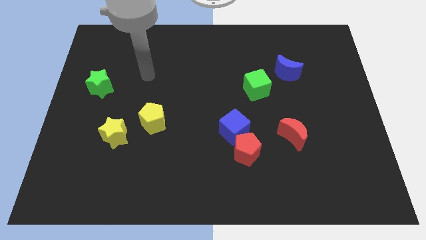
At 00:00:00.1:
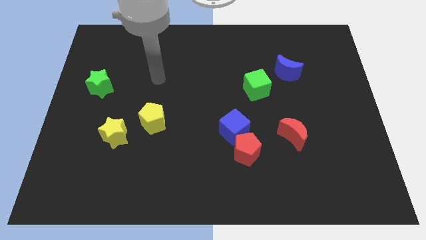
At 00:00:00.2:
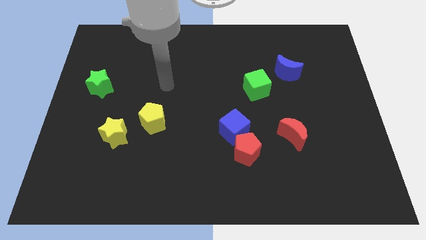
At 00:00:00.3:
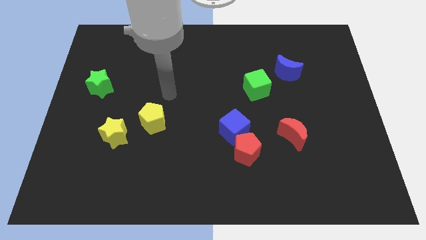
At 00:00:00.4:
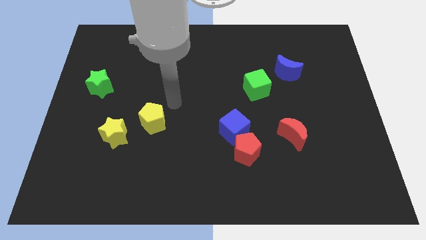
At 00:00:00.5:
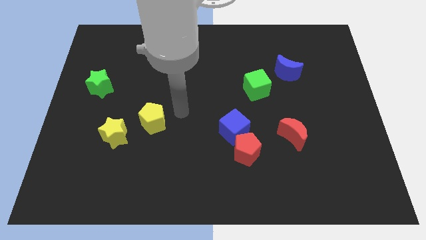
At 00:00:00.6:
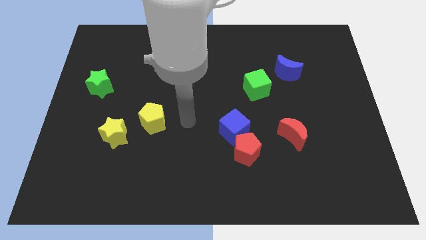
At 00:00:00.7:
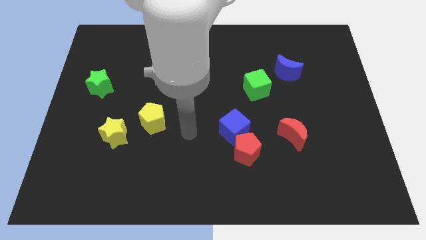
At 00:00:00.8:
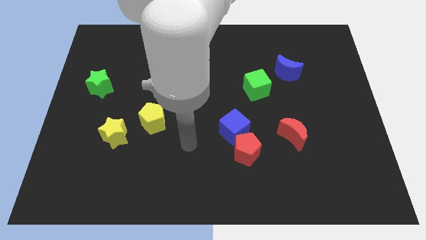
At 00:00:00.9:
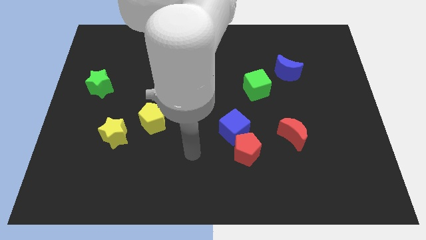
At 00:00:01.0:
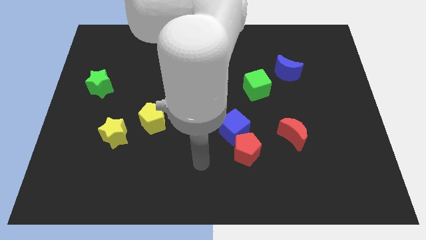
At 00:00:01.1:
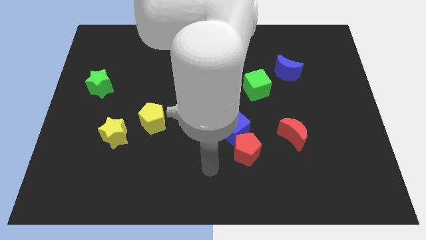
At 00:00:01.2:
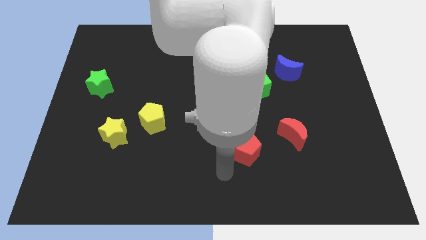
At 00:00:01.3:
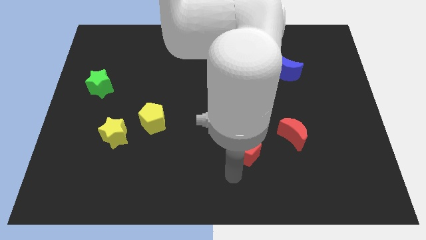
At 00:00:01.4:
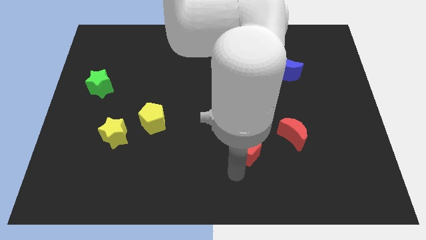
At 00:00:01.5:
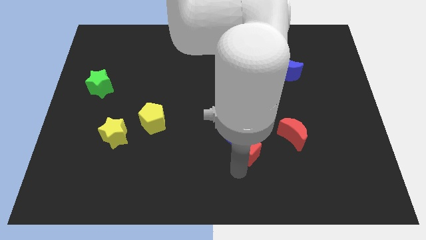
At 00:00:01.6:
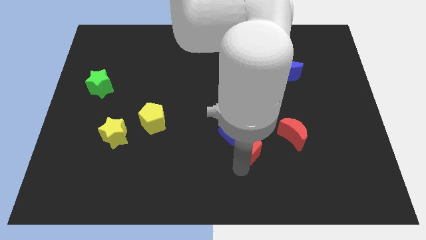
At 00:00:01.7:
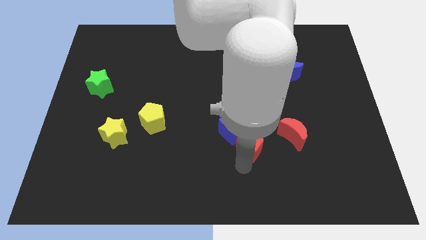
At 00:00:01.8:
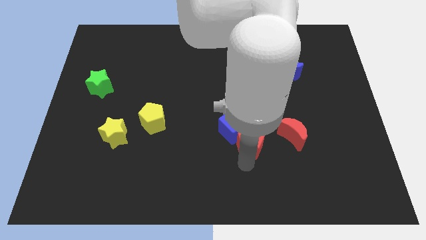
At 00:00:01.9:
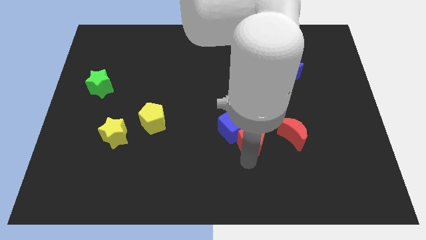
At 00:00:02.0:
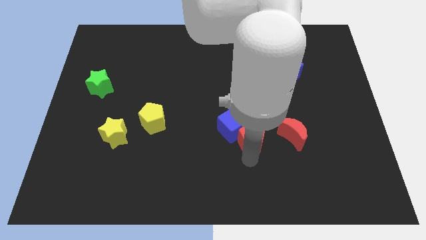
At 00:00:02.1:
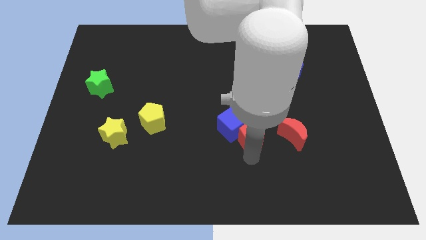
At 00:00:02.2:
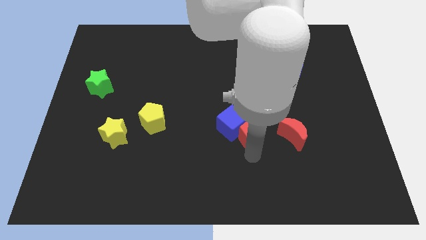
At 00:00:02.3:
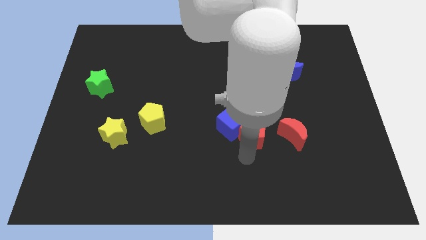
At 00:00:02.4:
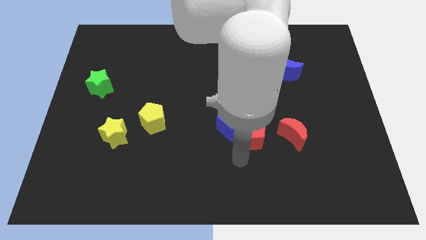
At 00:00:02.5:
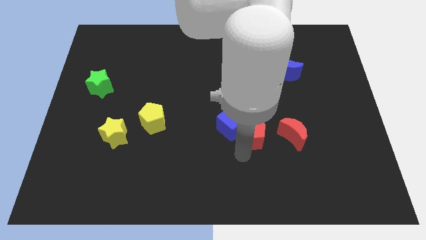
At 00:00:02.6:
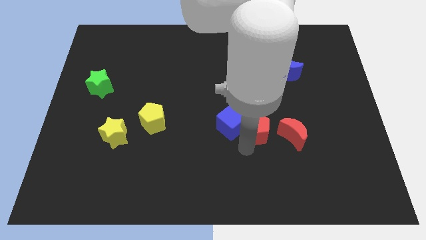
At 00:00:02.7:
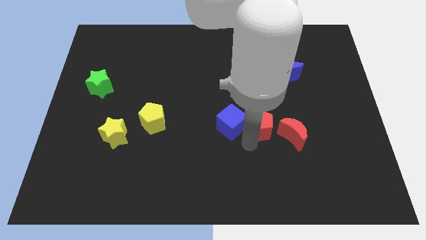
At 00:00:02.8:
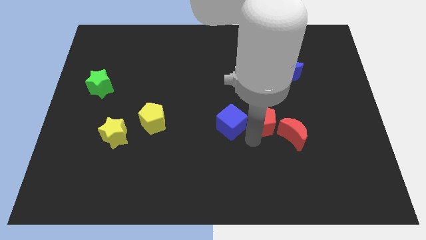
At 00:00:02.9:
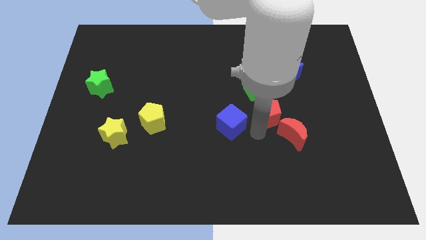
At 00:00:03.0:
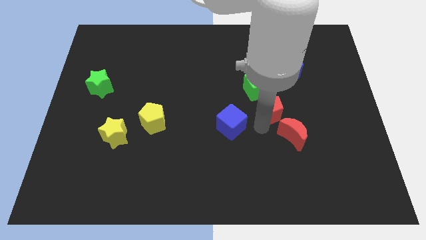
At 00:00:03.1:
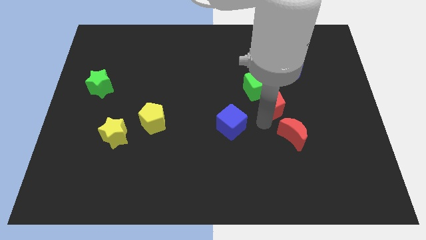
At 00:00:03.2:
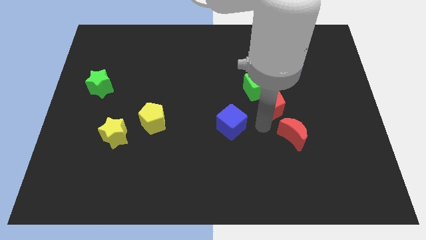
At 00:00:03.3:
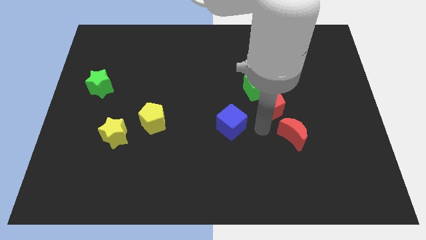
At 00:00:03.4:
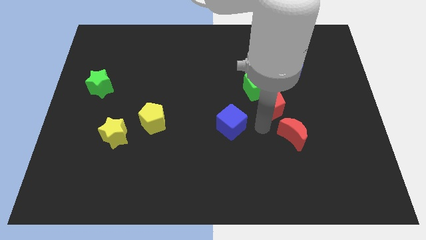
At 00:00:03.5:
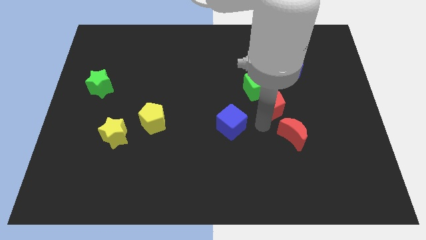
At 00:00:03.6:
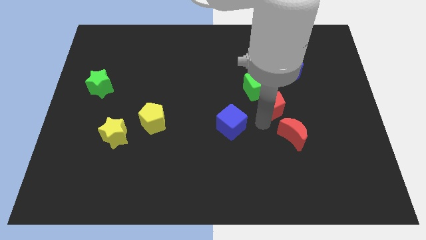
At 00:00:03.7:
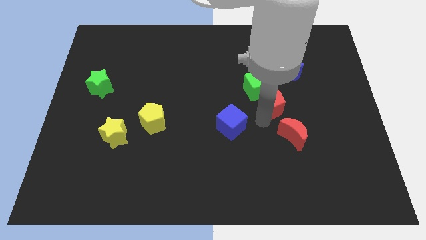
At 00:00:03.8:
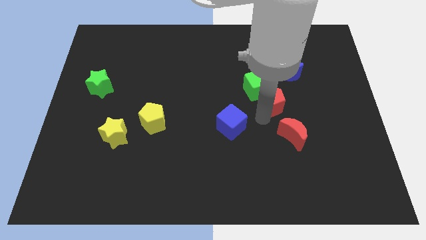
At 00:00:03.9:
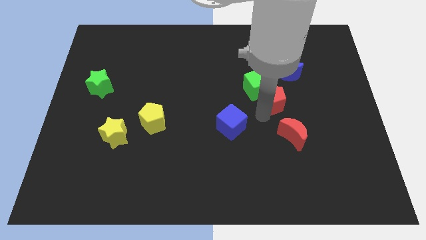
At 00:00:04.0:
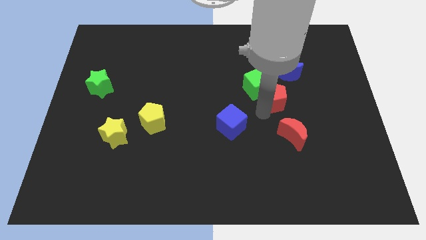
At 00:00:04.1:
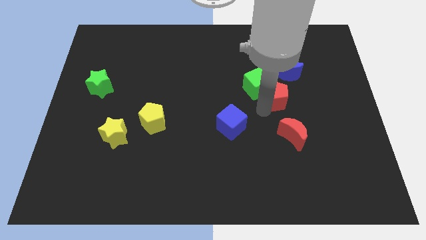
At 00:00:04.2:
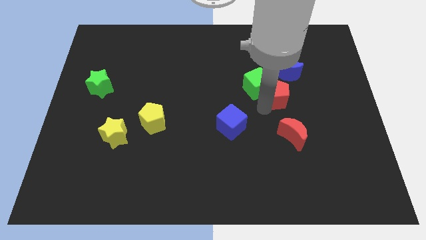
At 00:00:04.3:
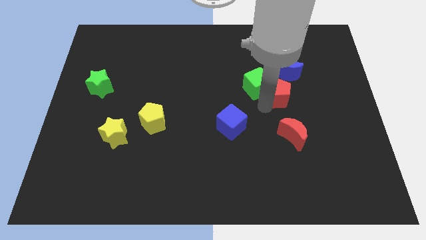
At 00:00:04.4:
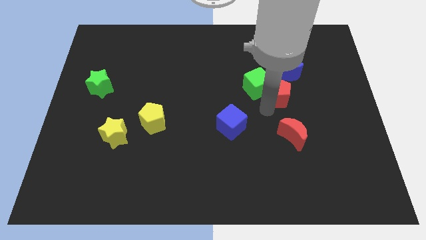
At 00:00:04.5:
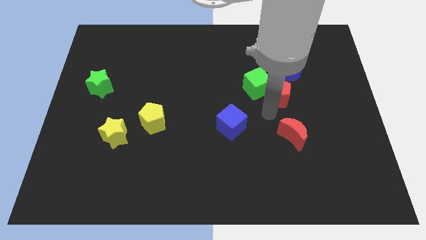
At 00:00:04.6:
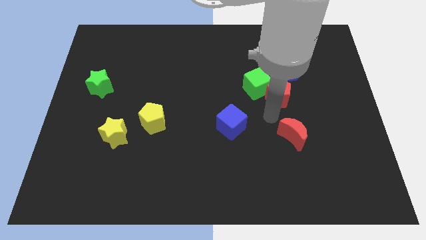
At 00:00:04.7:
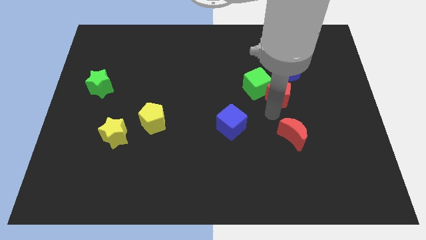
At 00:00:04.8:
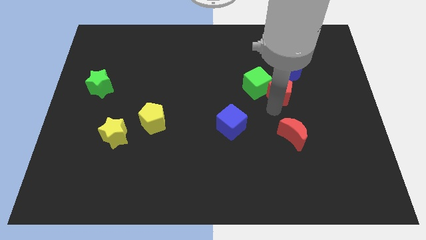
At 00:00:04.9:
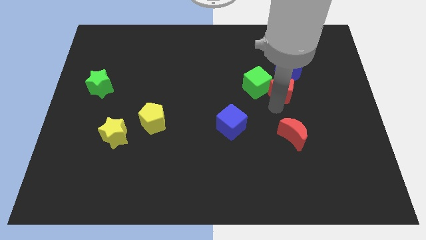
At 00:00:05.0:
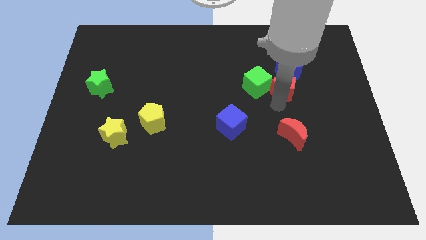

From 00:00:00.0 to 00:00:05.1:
slide the red pentagon to the blue moon

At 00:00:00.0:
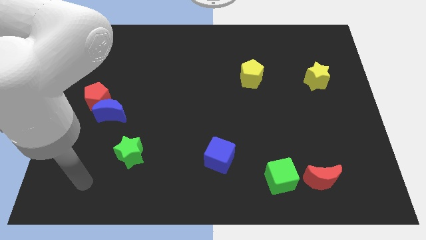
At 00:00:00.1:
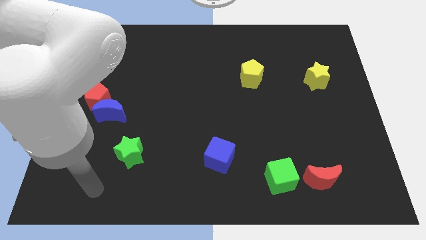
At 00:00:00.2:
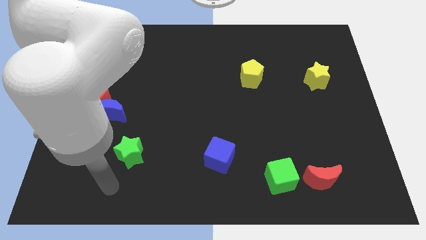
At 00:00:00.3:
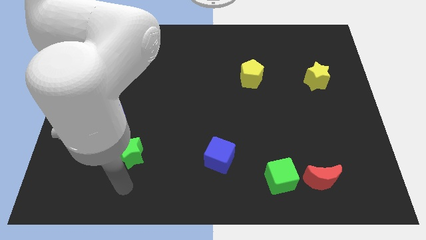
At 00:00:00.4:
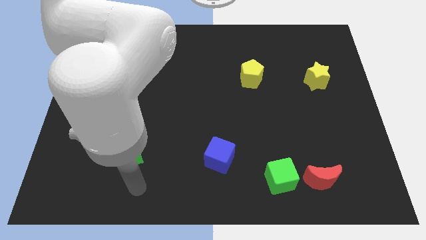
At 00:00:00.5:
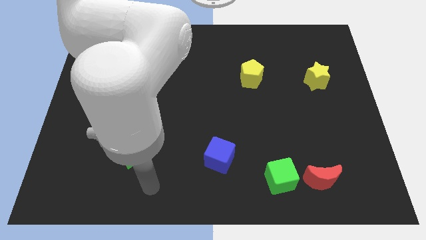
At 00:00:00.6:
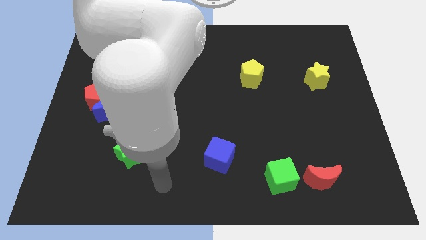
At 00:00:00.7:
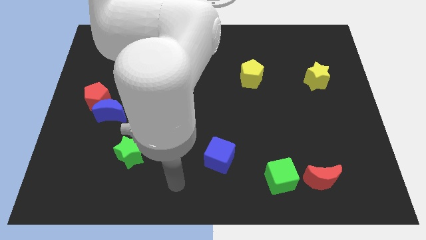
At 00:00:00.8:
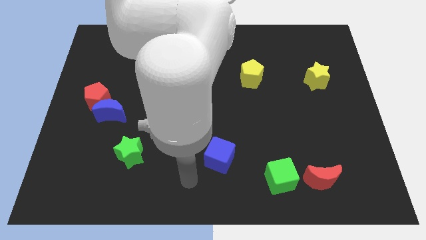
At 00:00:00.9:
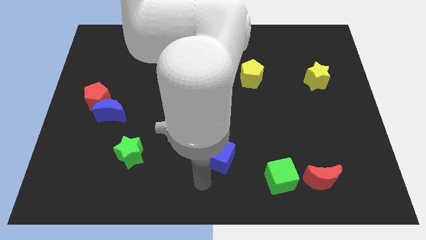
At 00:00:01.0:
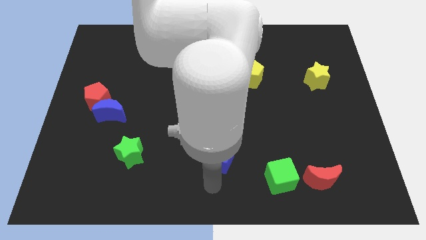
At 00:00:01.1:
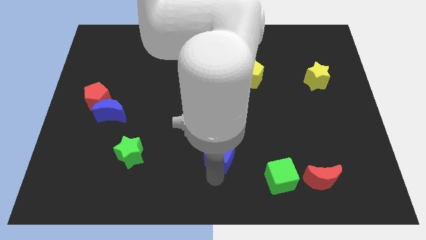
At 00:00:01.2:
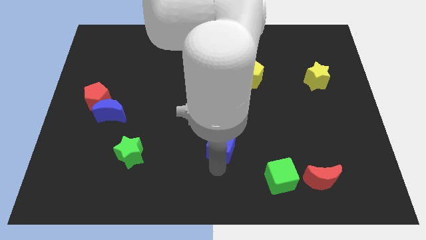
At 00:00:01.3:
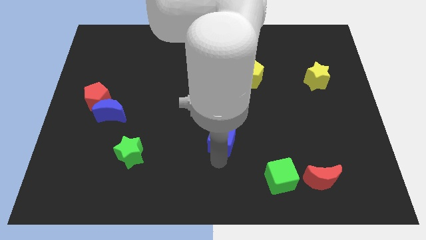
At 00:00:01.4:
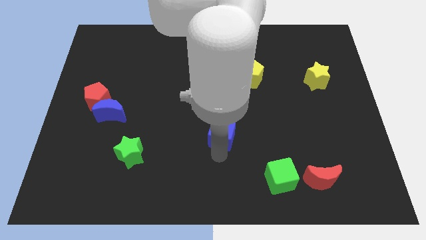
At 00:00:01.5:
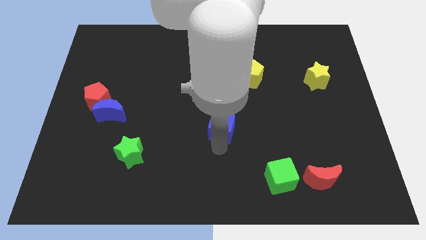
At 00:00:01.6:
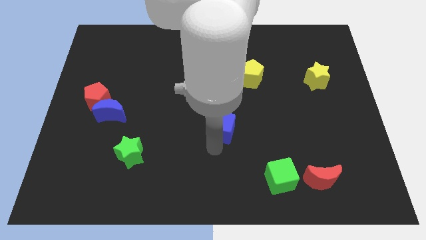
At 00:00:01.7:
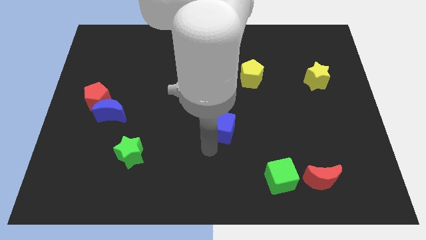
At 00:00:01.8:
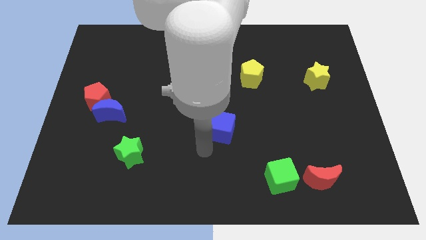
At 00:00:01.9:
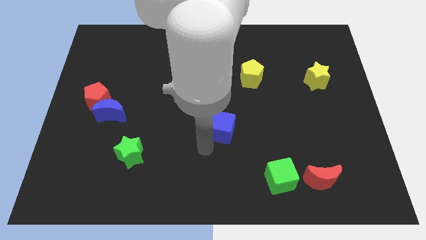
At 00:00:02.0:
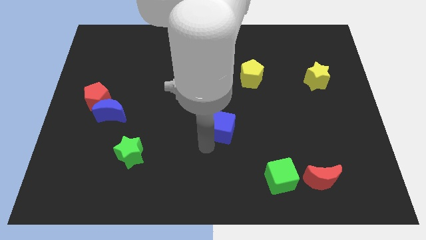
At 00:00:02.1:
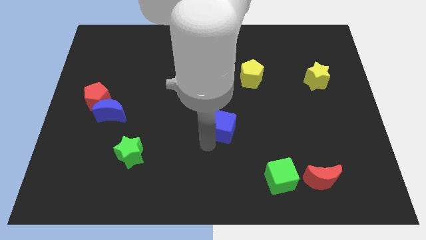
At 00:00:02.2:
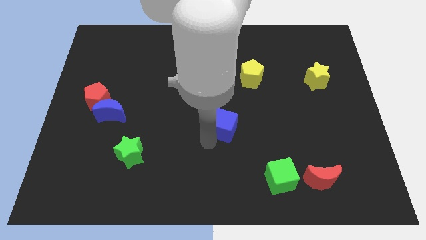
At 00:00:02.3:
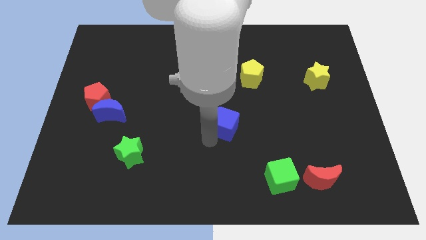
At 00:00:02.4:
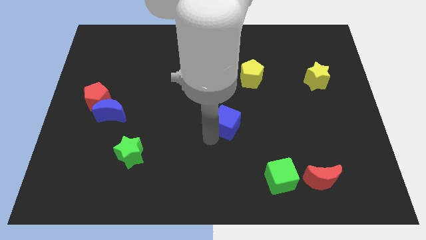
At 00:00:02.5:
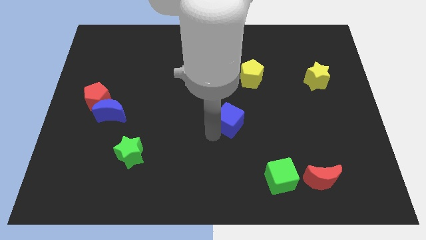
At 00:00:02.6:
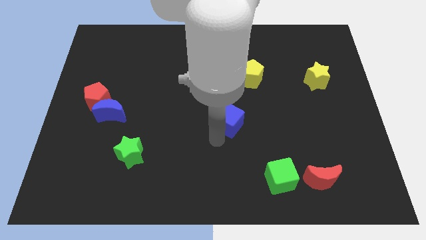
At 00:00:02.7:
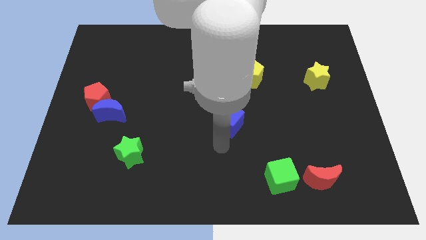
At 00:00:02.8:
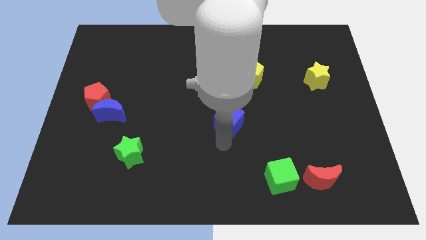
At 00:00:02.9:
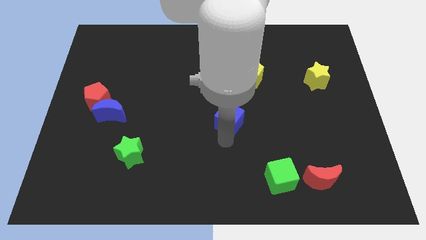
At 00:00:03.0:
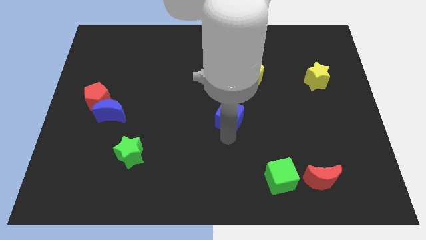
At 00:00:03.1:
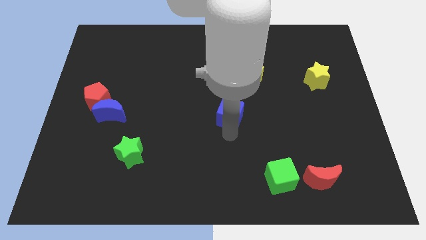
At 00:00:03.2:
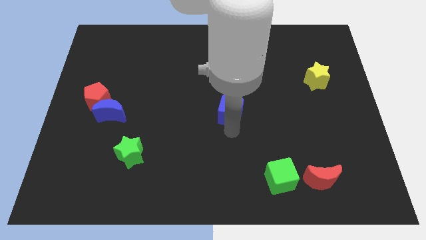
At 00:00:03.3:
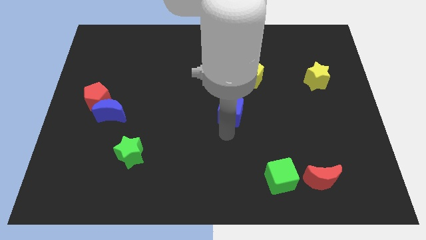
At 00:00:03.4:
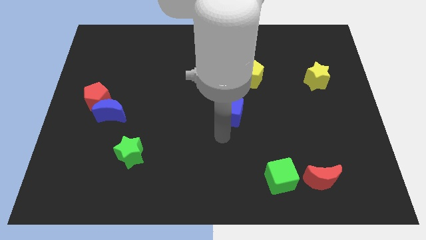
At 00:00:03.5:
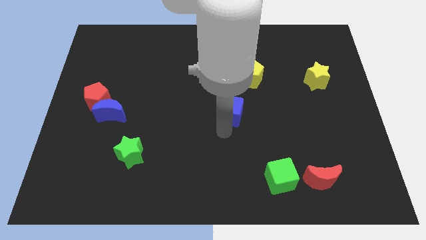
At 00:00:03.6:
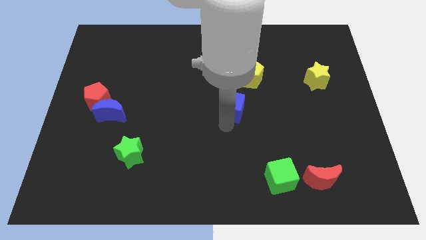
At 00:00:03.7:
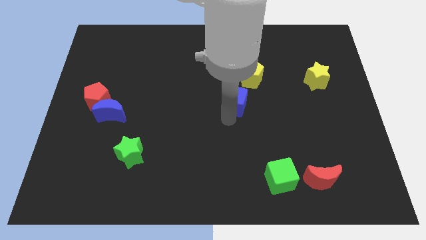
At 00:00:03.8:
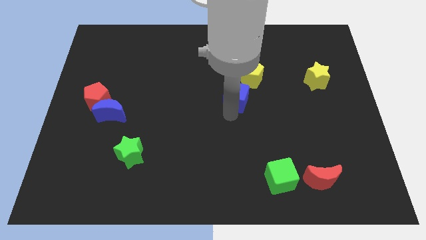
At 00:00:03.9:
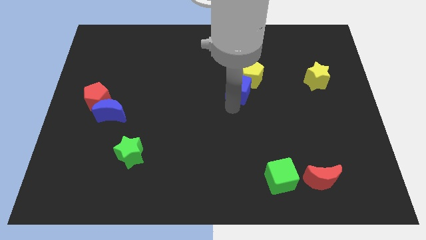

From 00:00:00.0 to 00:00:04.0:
slide the blue cube next to the yellow pentagon
